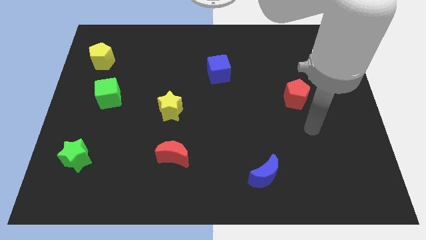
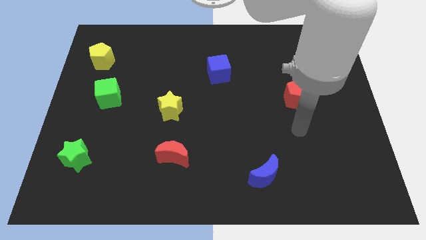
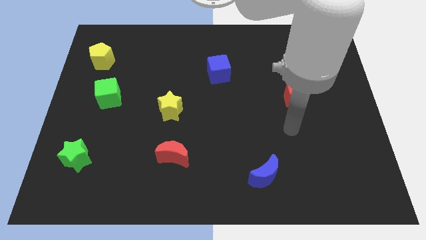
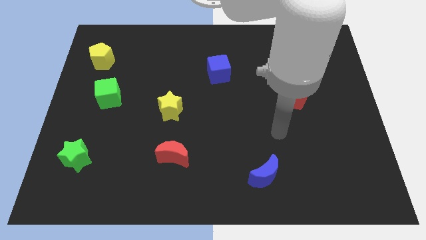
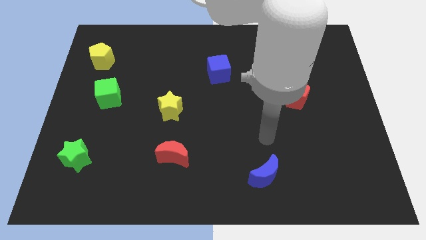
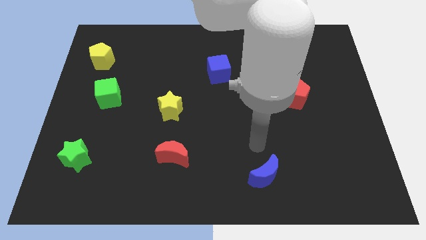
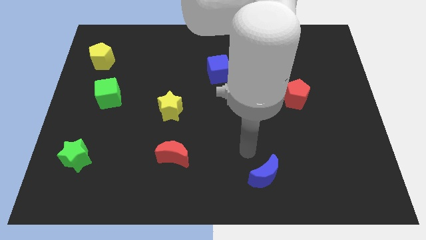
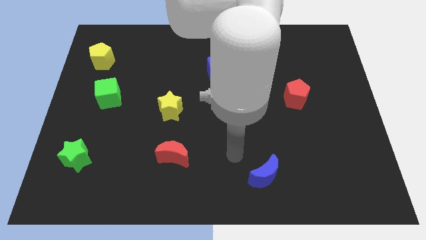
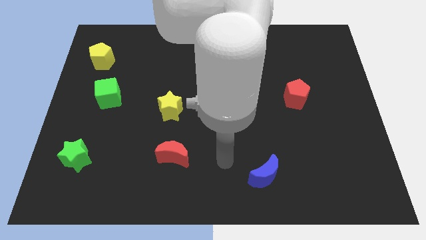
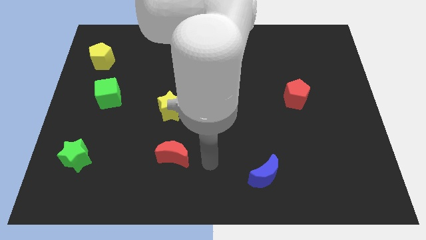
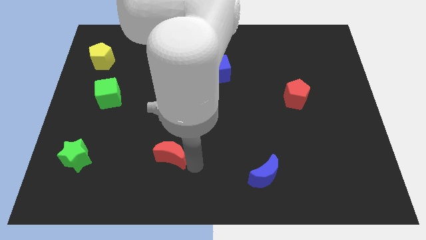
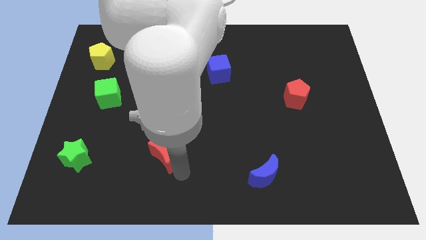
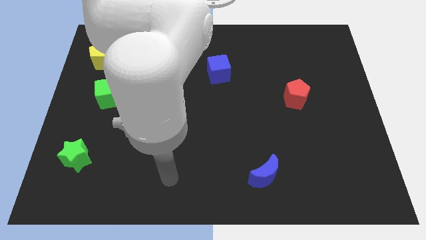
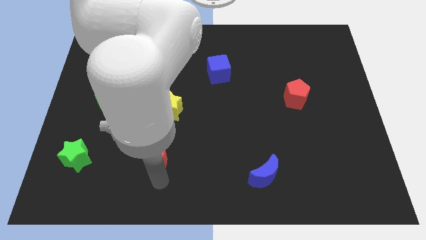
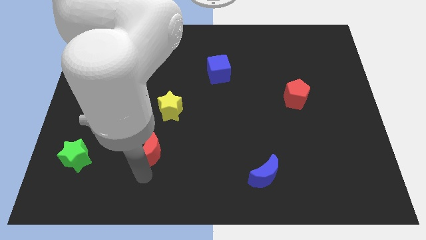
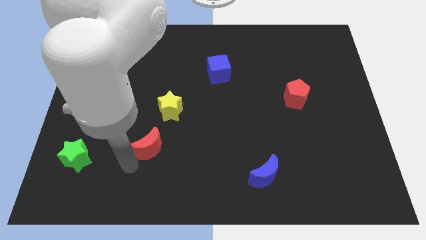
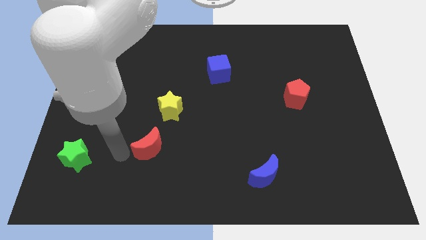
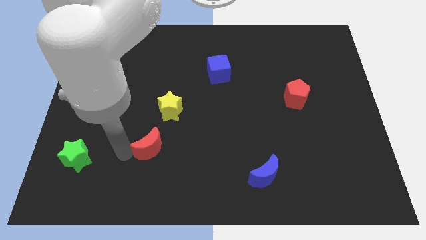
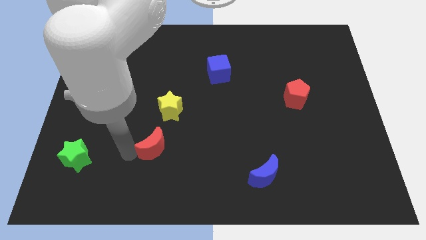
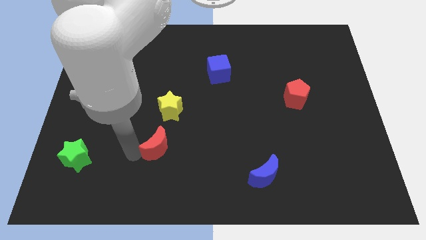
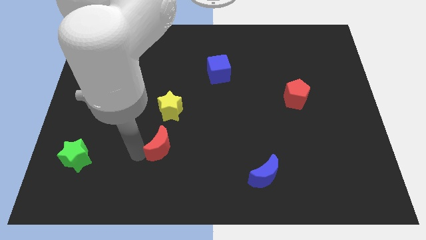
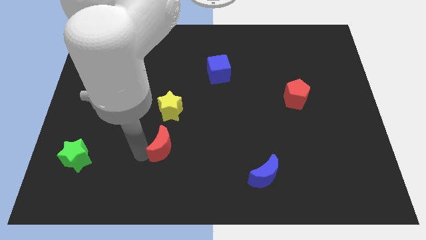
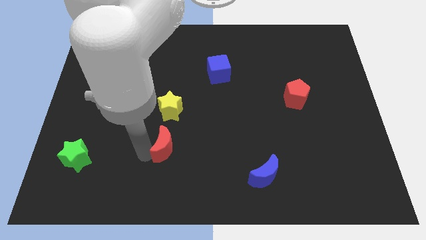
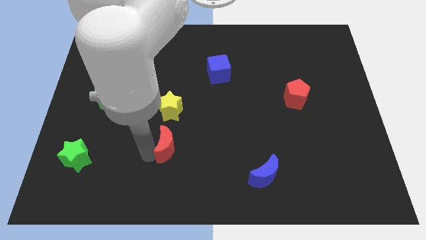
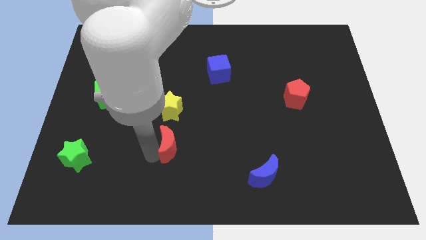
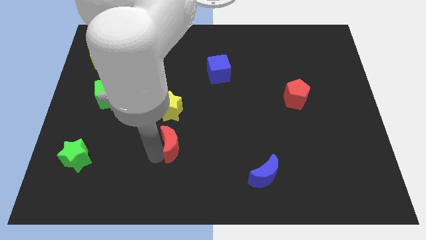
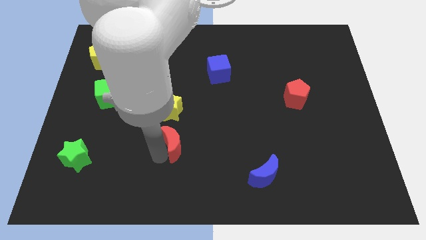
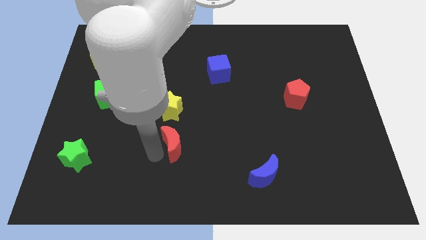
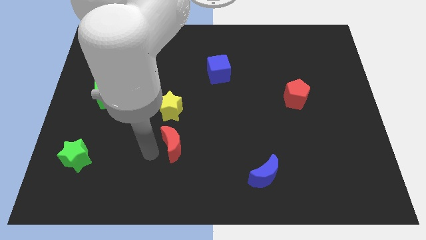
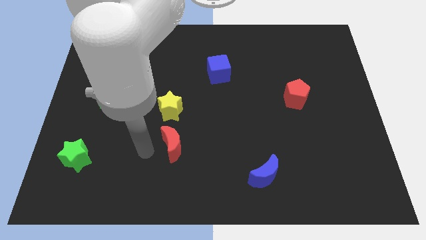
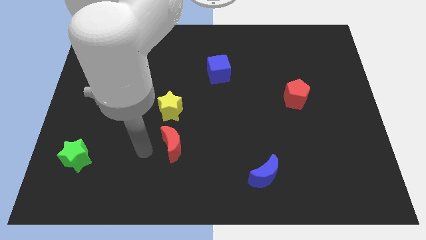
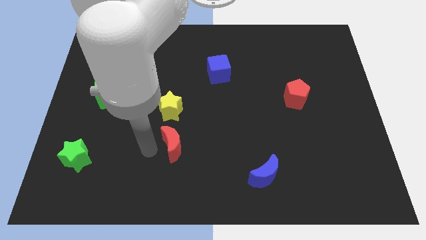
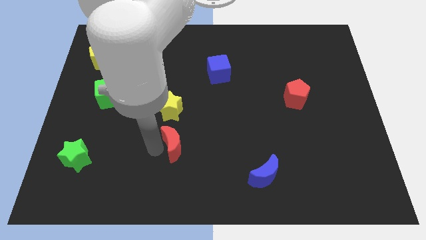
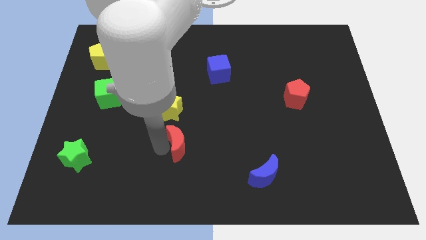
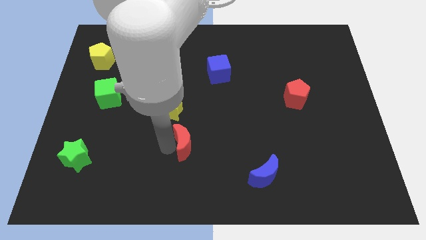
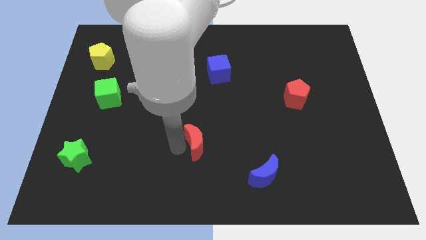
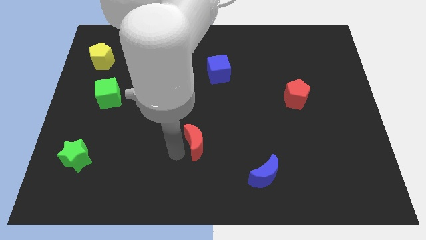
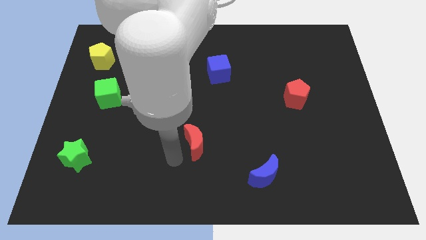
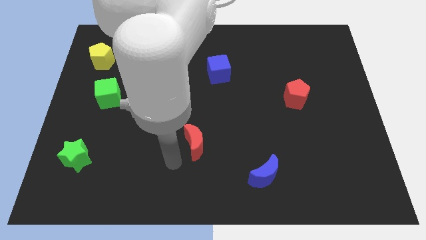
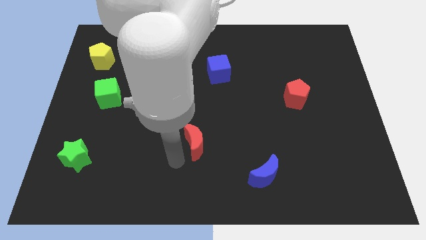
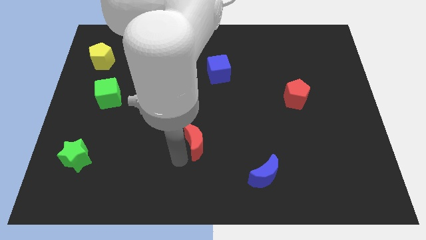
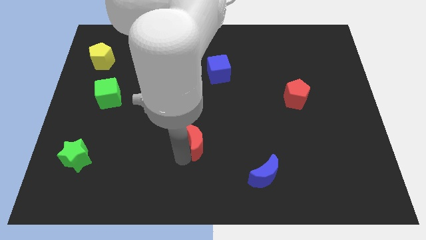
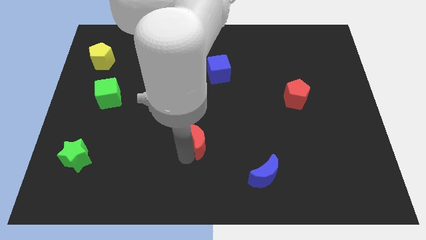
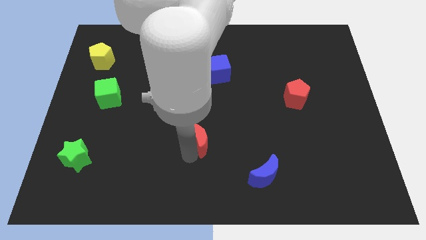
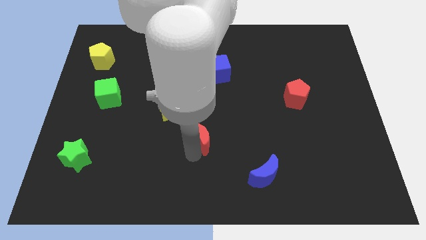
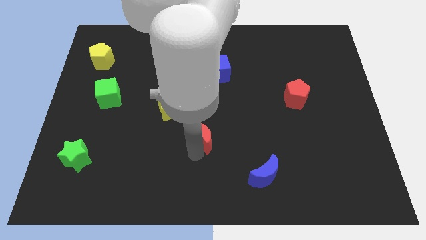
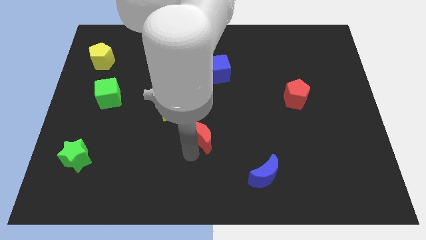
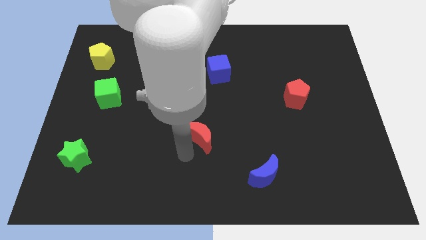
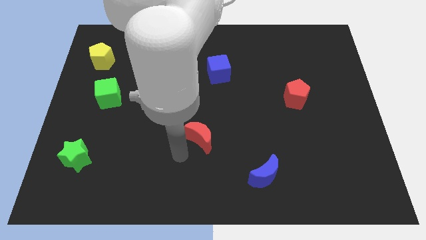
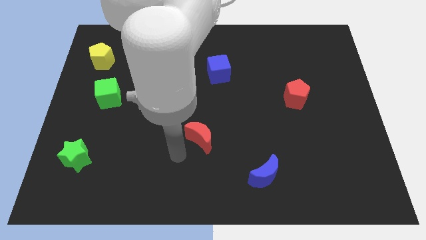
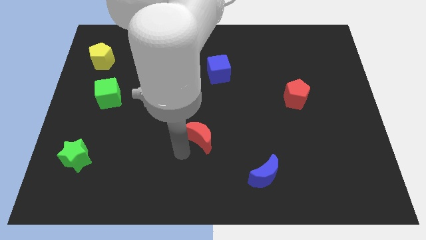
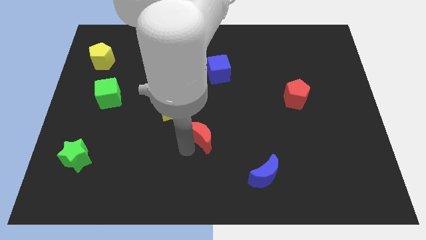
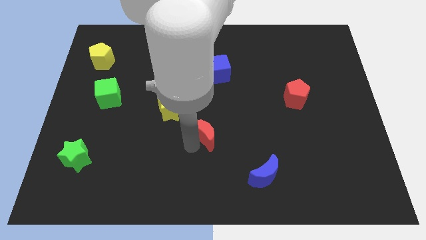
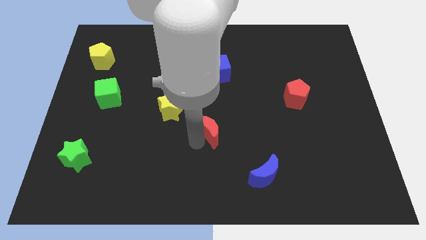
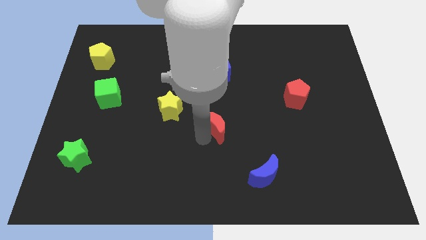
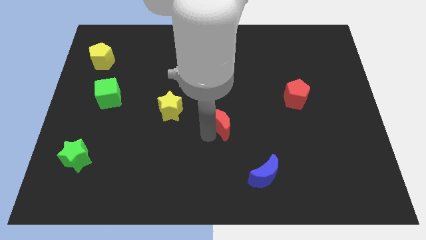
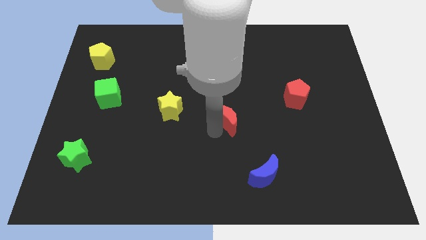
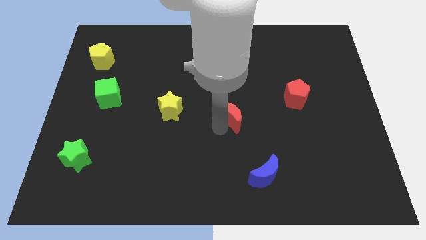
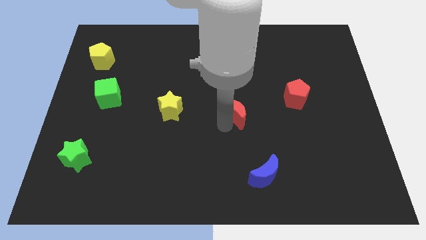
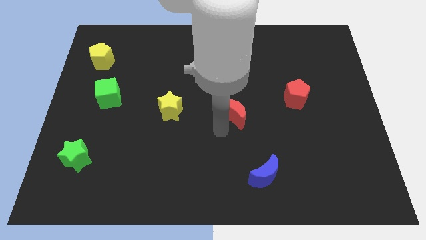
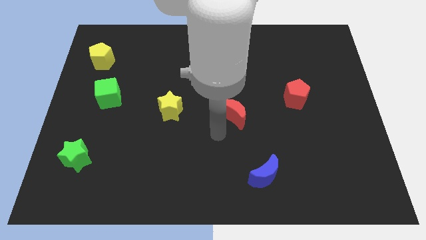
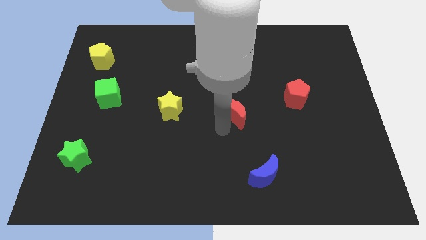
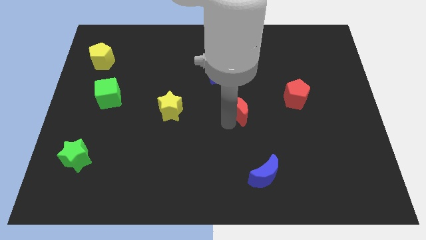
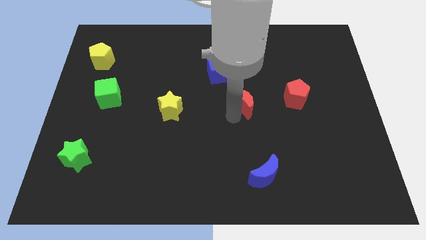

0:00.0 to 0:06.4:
slide the red moon diagonally up and to the right

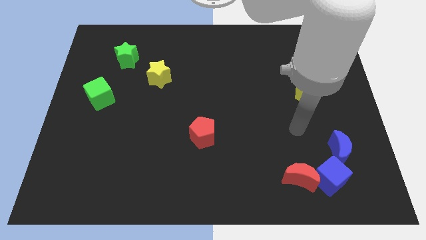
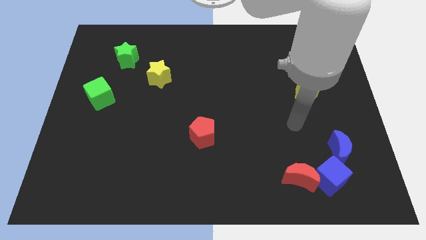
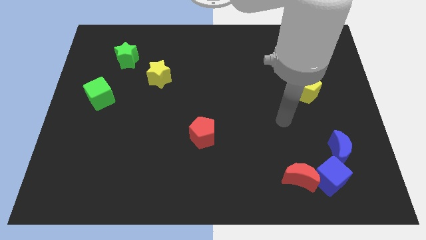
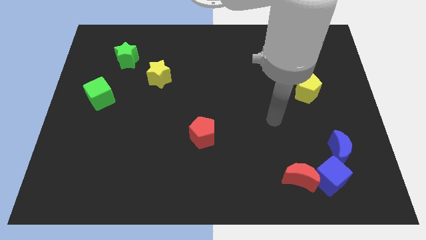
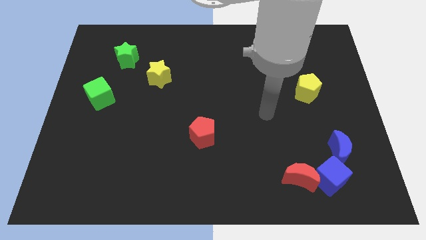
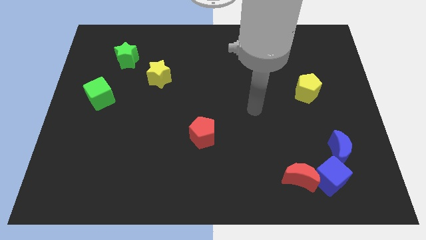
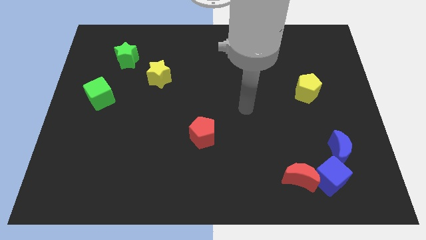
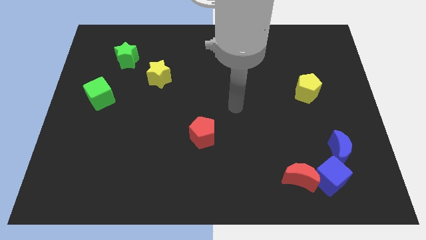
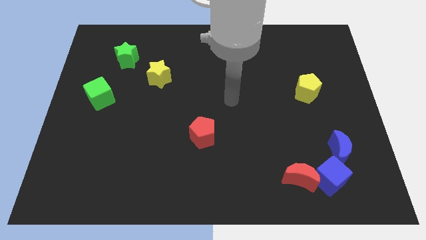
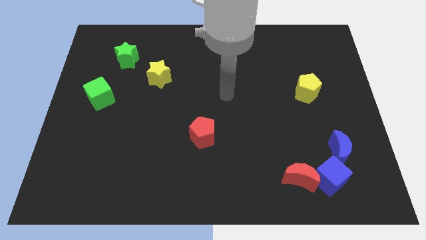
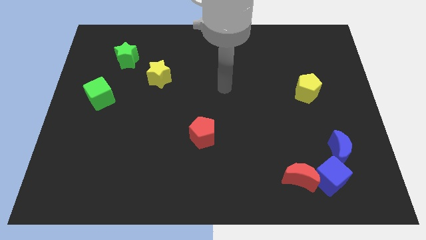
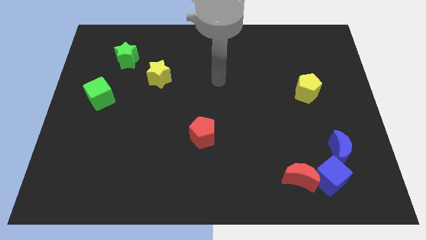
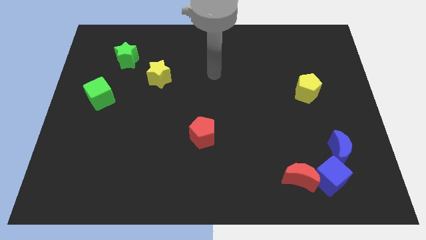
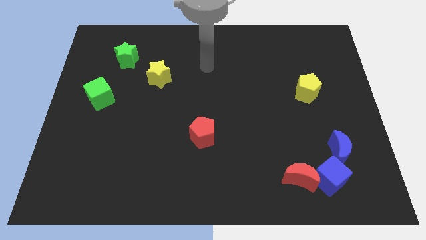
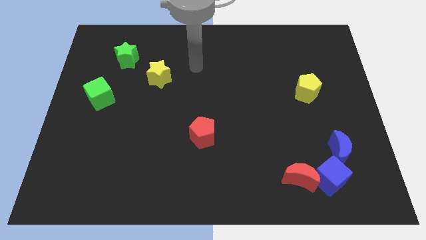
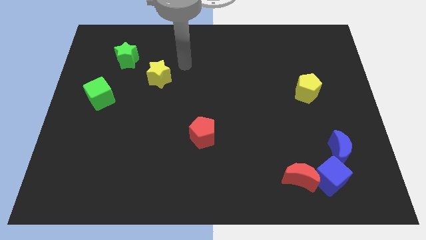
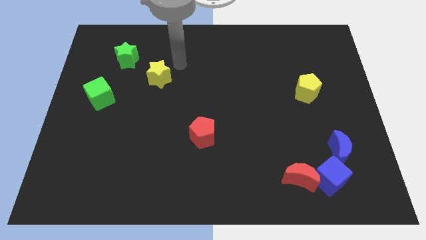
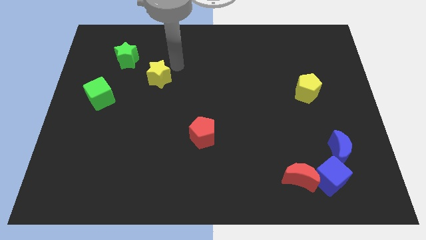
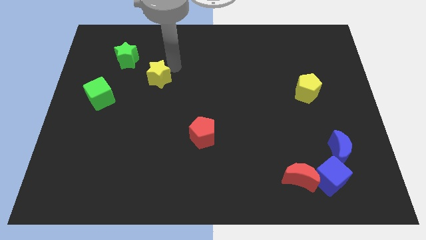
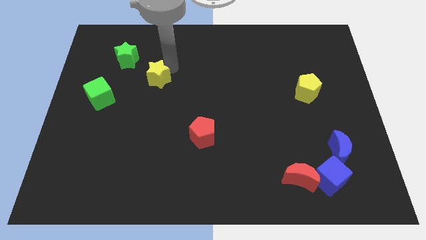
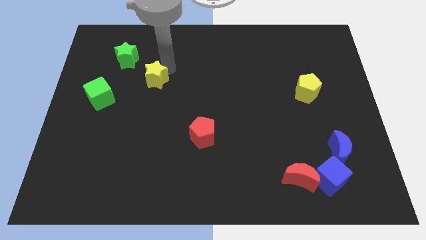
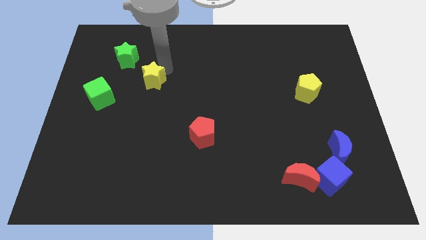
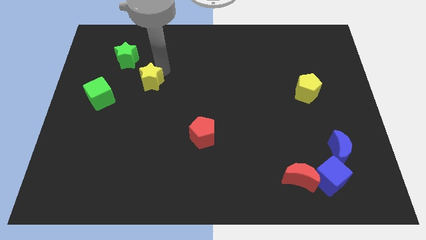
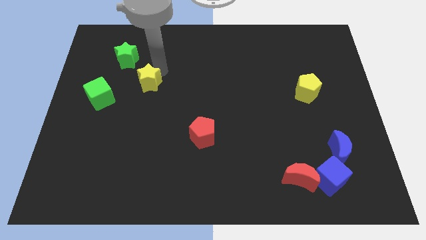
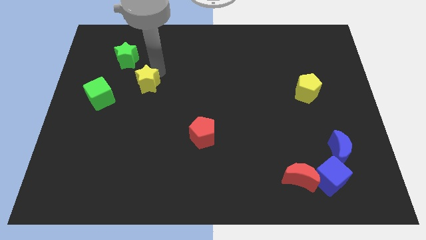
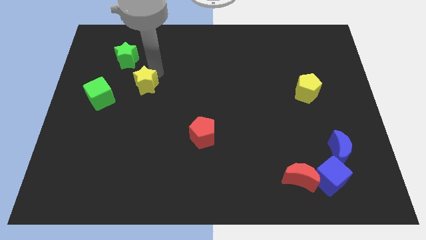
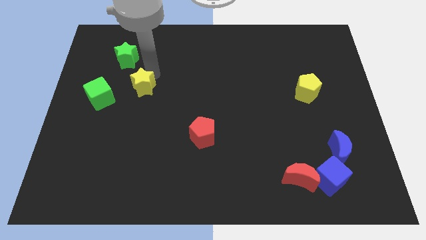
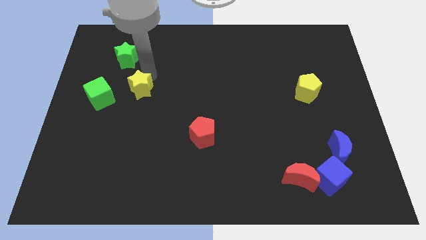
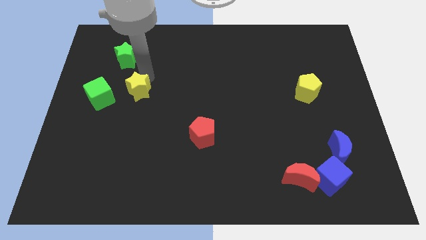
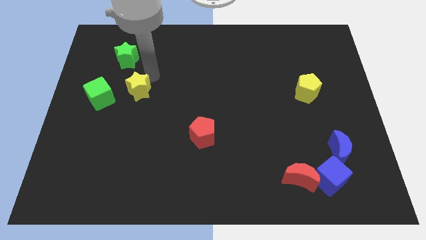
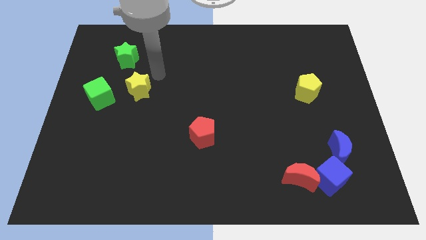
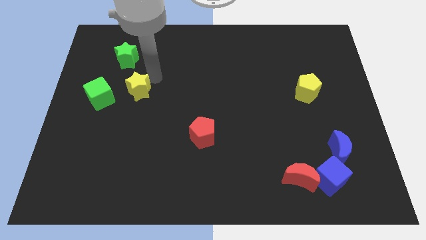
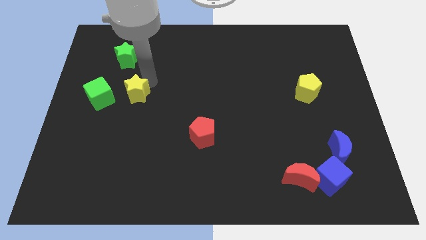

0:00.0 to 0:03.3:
slide the yellow star a little bit downwards and to the left
